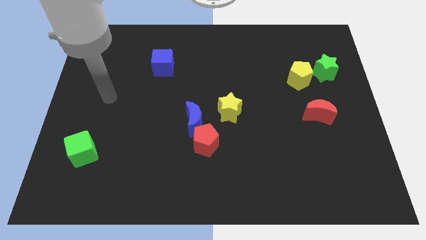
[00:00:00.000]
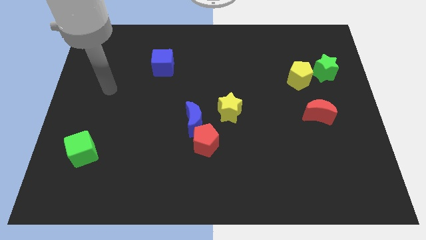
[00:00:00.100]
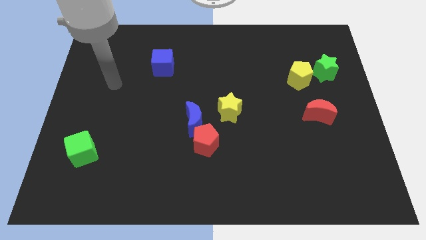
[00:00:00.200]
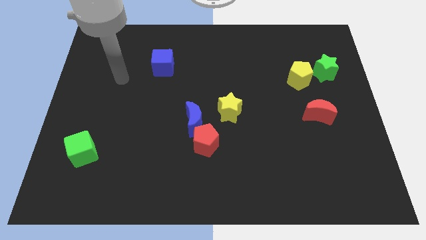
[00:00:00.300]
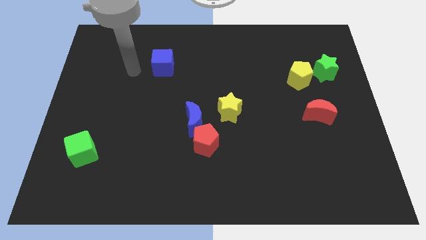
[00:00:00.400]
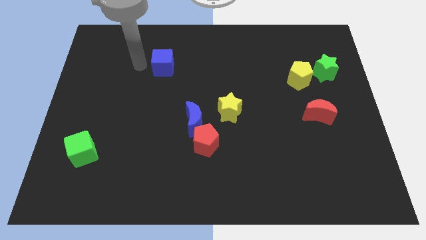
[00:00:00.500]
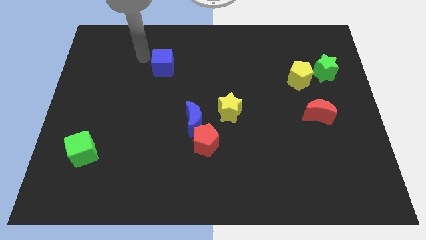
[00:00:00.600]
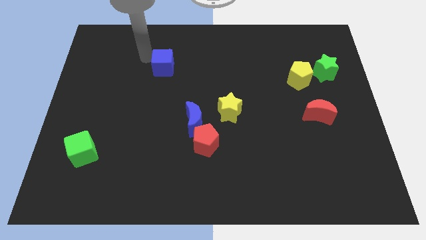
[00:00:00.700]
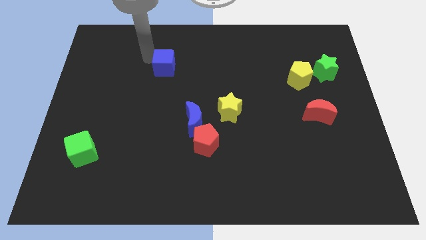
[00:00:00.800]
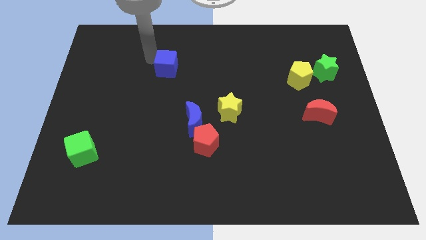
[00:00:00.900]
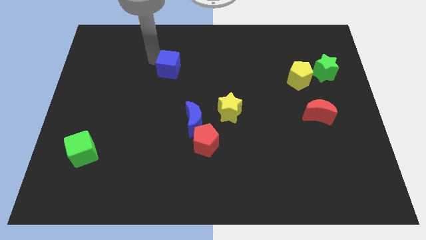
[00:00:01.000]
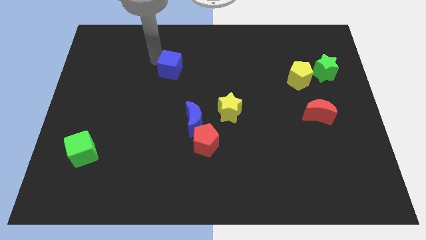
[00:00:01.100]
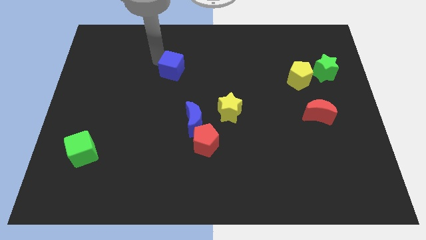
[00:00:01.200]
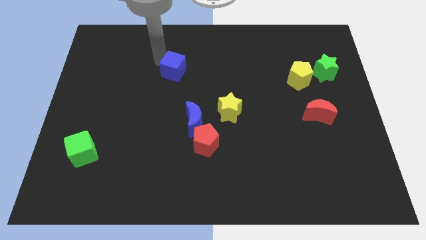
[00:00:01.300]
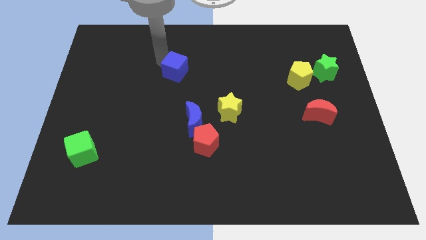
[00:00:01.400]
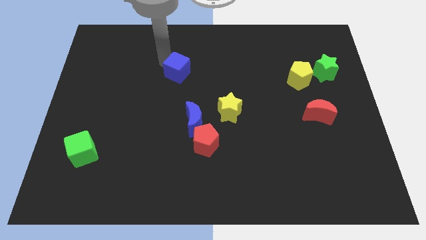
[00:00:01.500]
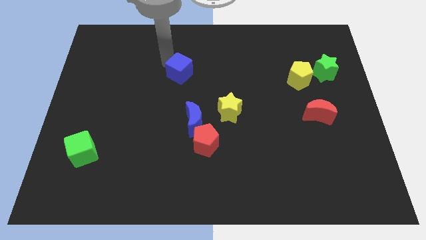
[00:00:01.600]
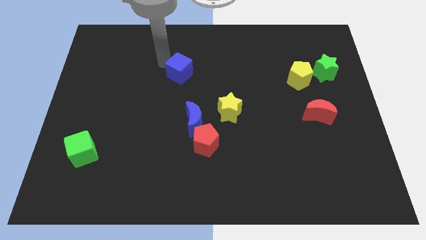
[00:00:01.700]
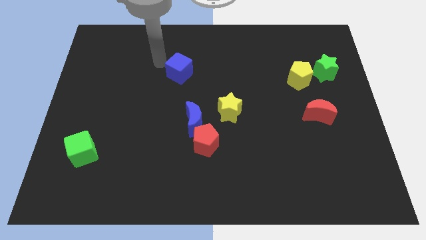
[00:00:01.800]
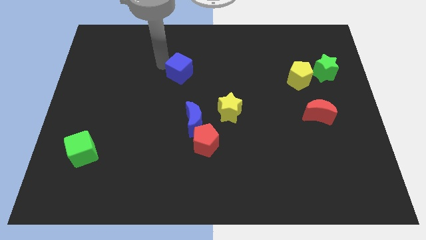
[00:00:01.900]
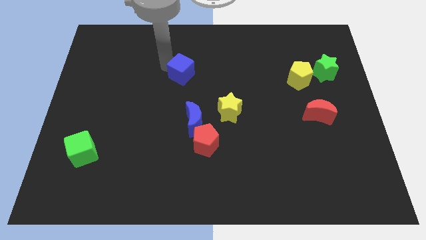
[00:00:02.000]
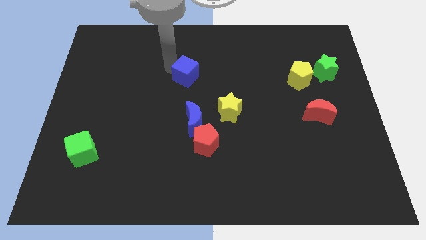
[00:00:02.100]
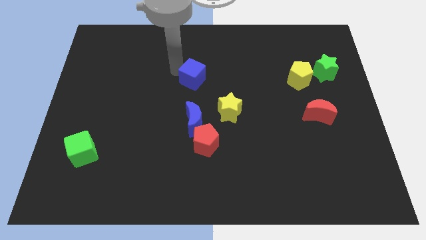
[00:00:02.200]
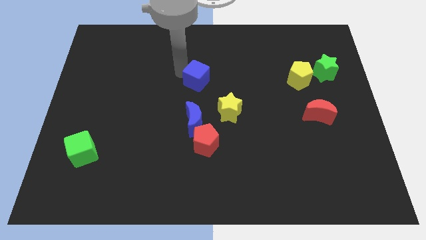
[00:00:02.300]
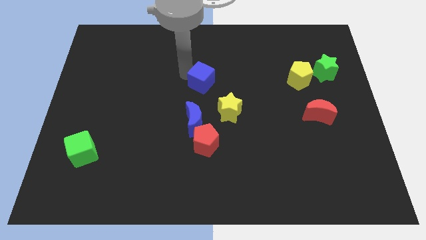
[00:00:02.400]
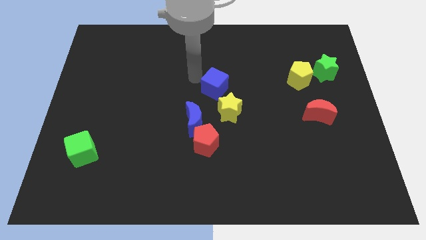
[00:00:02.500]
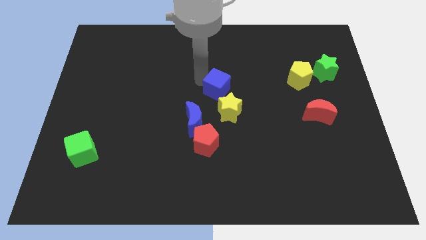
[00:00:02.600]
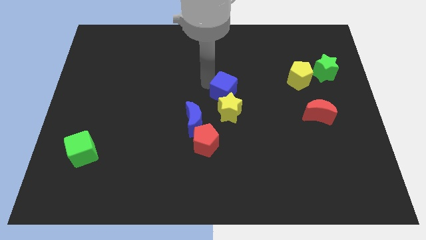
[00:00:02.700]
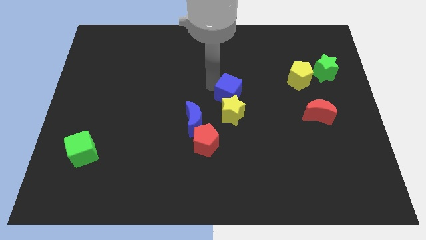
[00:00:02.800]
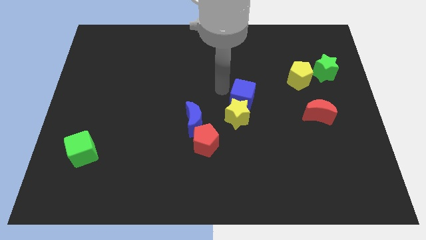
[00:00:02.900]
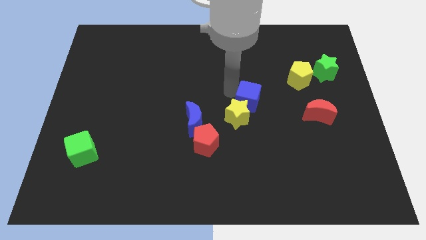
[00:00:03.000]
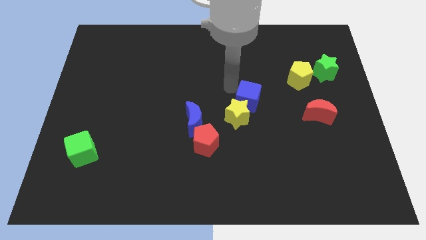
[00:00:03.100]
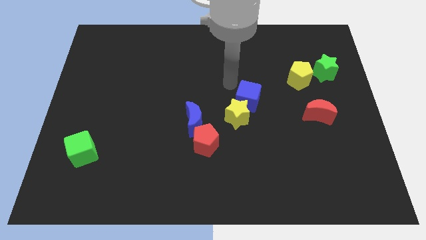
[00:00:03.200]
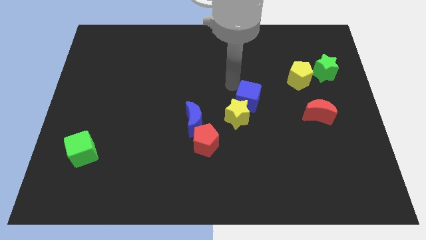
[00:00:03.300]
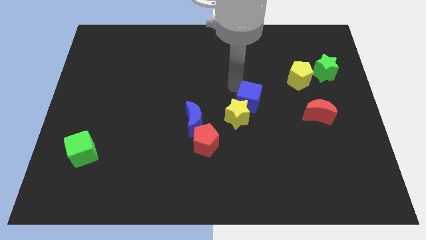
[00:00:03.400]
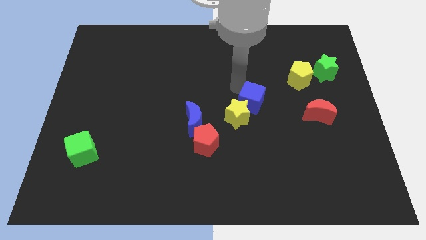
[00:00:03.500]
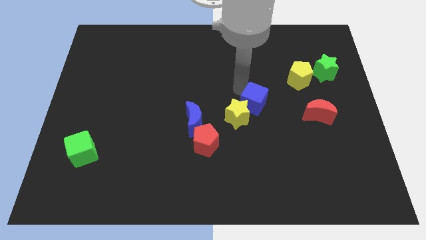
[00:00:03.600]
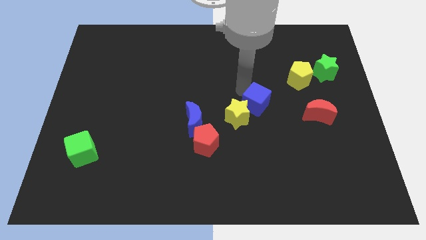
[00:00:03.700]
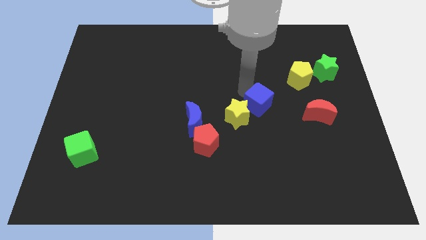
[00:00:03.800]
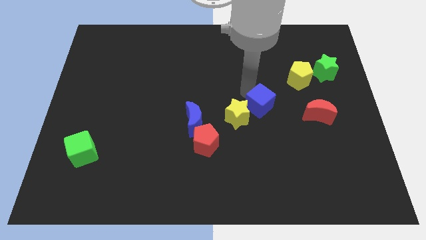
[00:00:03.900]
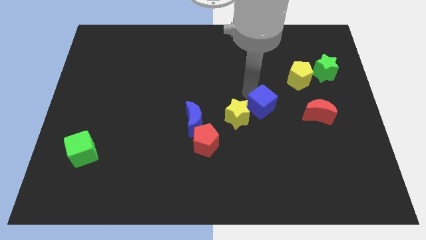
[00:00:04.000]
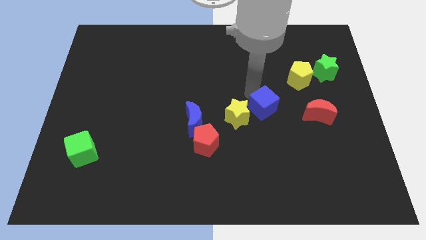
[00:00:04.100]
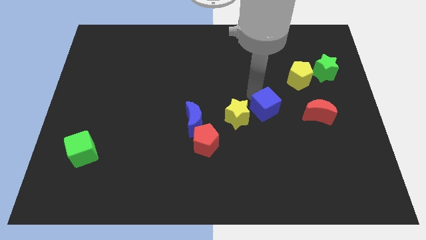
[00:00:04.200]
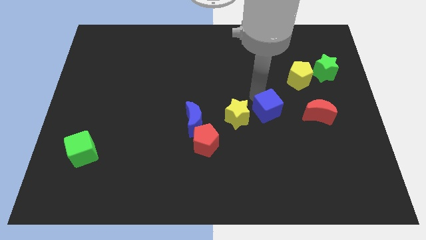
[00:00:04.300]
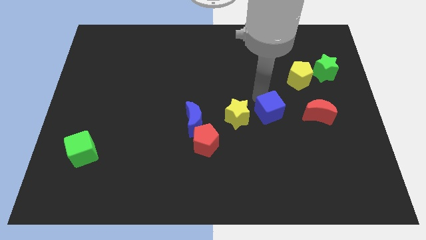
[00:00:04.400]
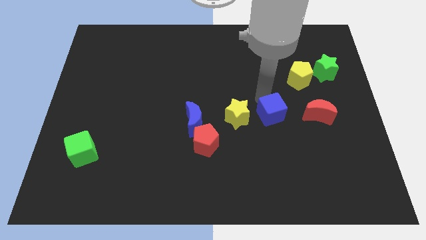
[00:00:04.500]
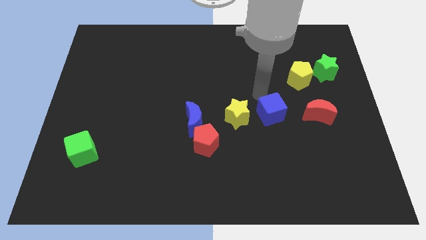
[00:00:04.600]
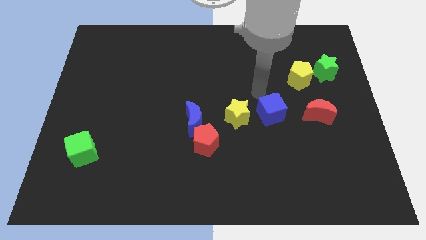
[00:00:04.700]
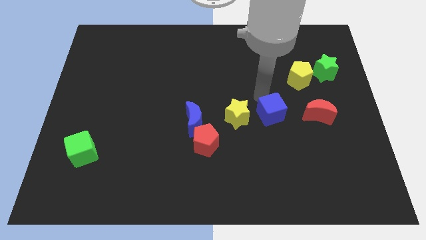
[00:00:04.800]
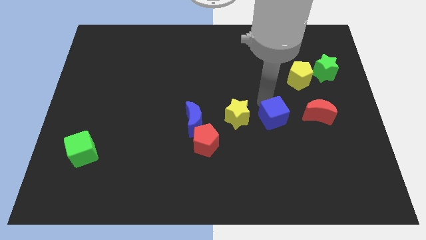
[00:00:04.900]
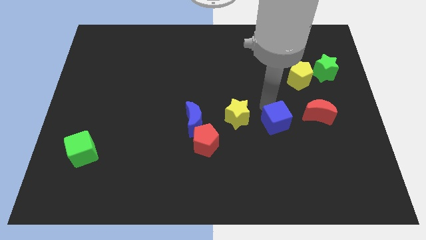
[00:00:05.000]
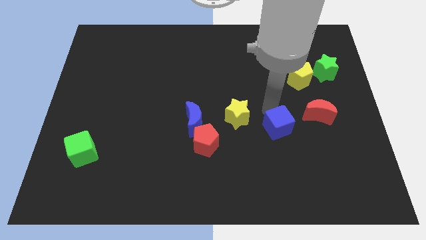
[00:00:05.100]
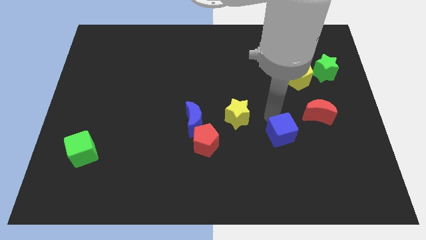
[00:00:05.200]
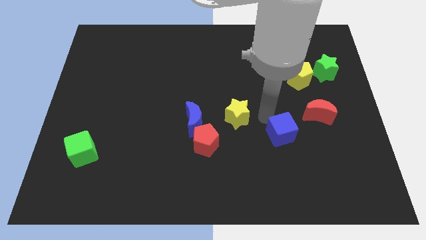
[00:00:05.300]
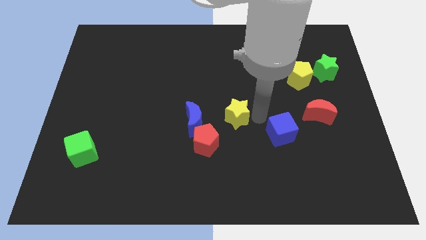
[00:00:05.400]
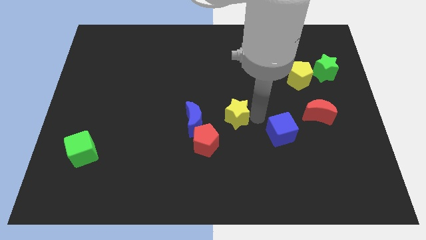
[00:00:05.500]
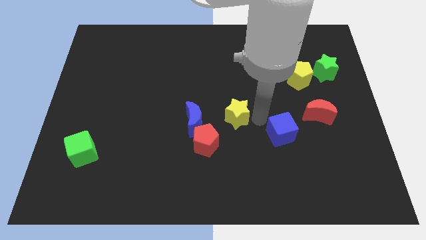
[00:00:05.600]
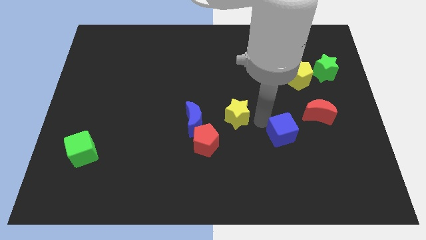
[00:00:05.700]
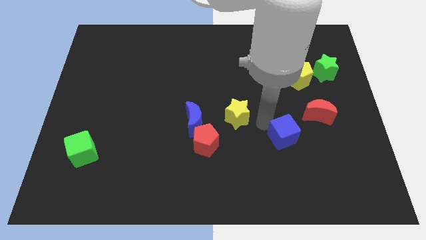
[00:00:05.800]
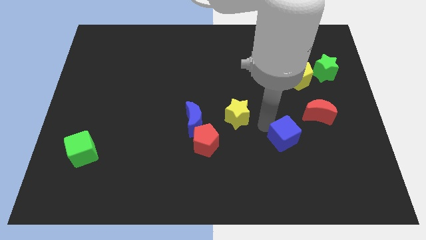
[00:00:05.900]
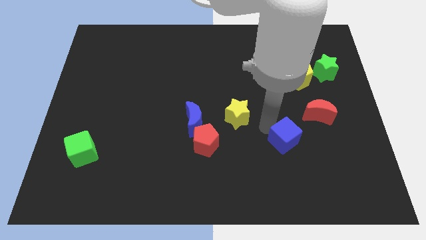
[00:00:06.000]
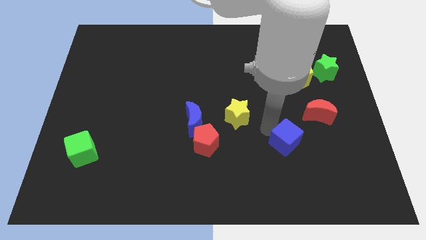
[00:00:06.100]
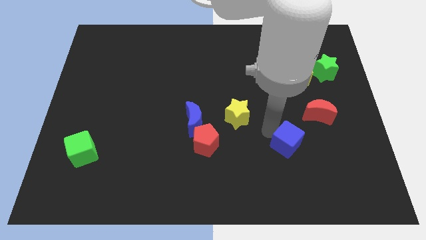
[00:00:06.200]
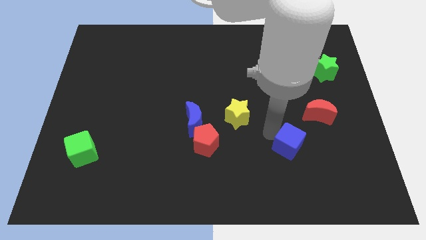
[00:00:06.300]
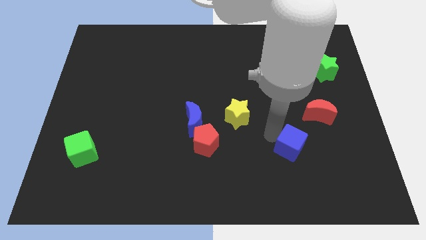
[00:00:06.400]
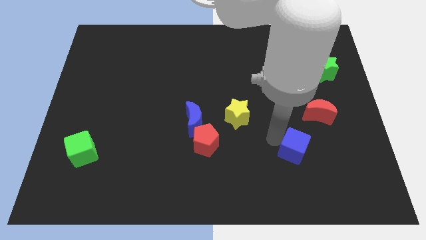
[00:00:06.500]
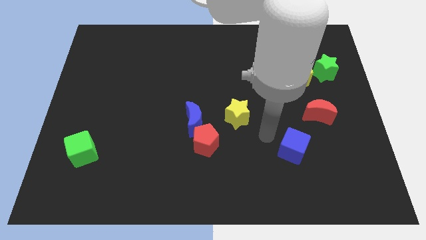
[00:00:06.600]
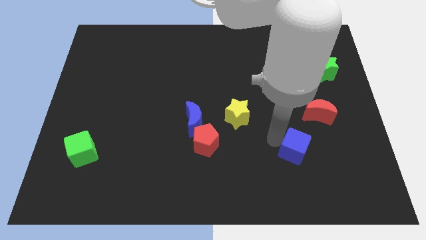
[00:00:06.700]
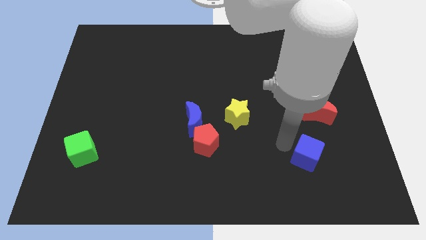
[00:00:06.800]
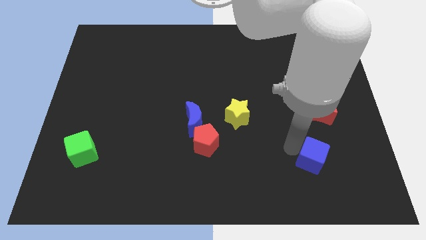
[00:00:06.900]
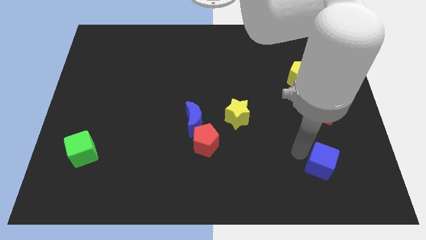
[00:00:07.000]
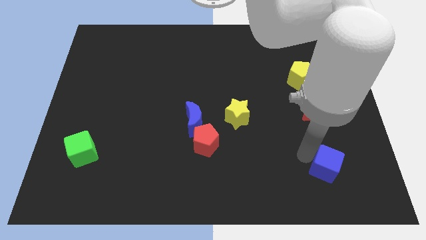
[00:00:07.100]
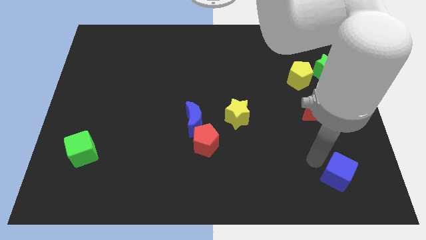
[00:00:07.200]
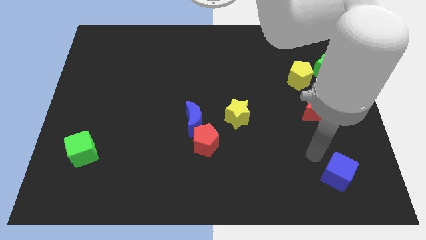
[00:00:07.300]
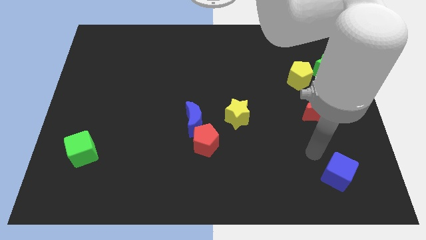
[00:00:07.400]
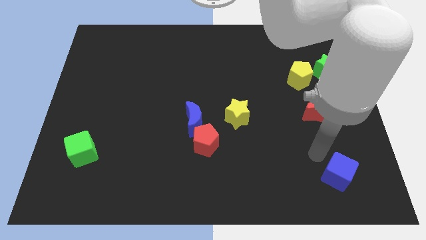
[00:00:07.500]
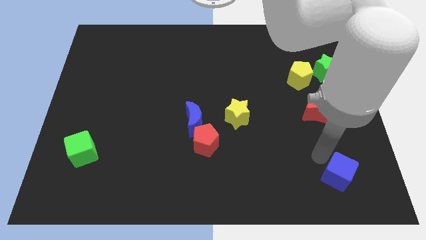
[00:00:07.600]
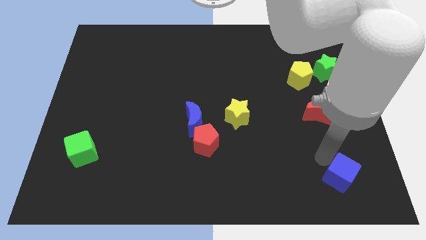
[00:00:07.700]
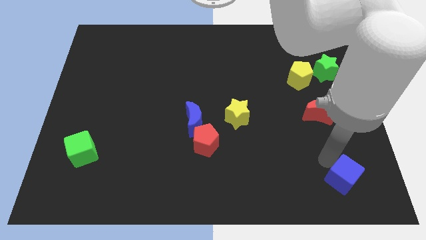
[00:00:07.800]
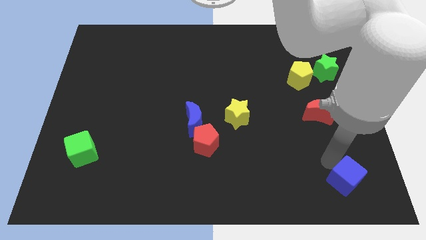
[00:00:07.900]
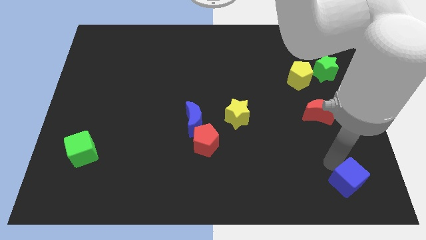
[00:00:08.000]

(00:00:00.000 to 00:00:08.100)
push the blue cube to the lower right corner
